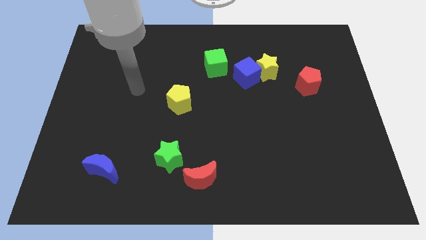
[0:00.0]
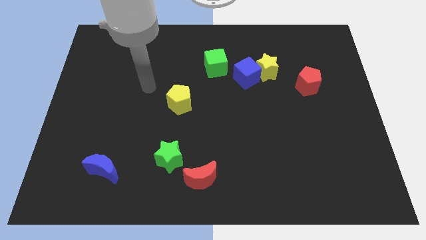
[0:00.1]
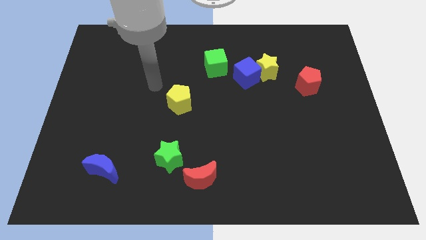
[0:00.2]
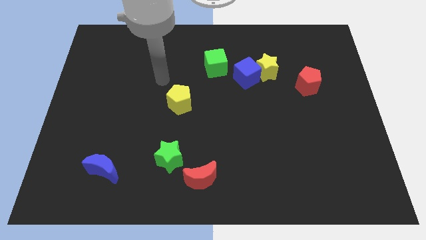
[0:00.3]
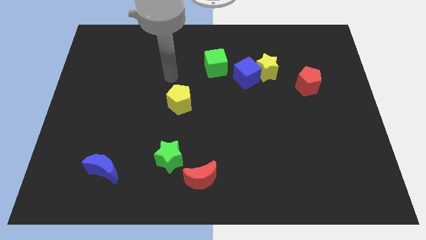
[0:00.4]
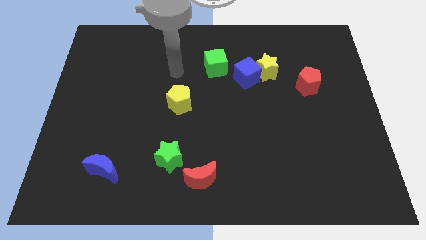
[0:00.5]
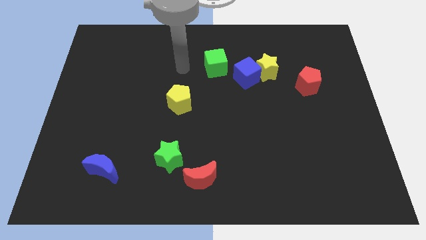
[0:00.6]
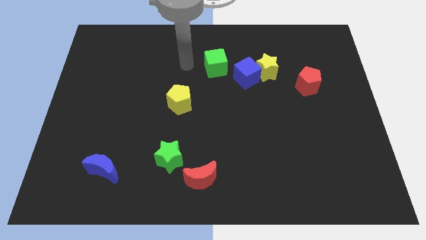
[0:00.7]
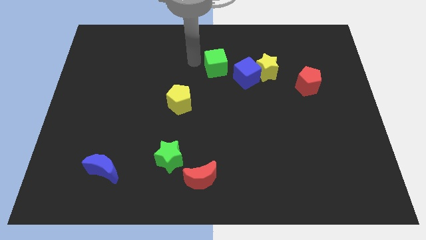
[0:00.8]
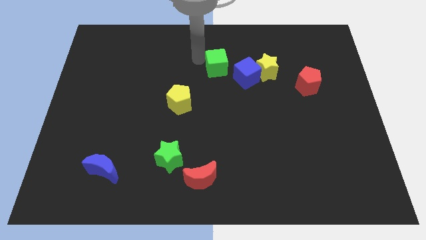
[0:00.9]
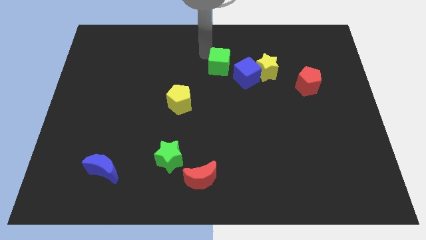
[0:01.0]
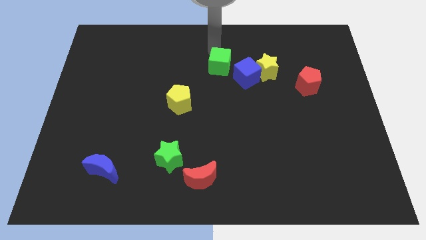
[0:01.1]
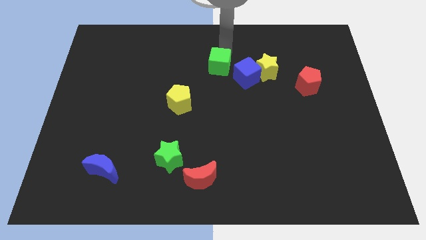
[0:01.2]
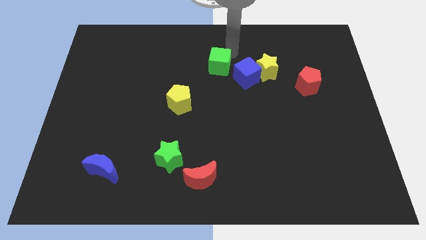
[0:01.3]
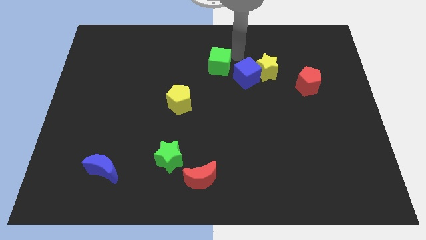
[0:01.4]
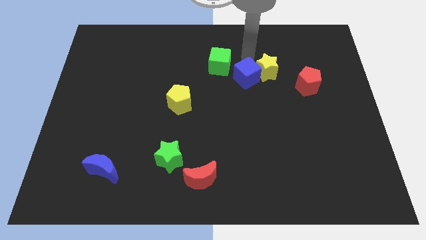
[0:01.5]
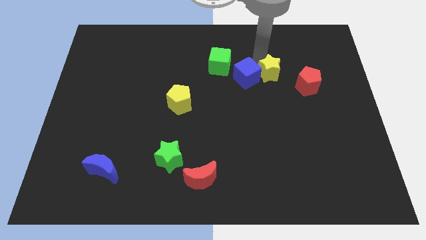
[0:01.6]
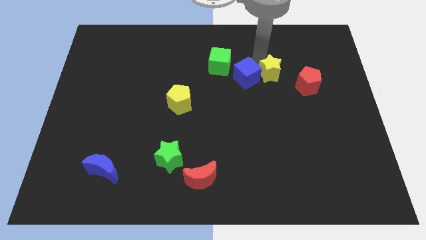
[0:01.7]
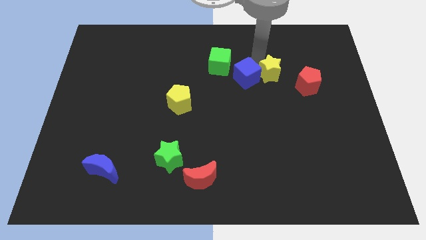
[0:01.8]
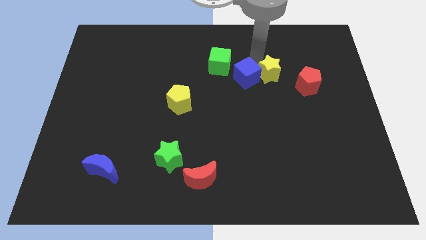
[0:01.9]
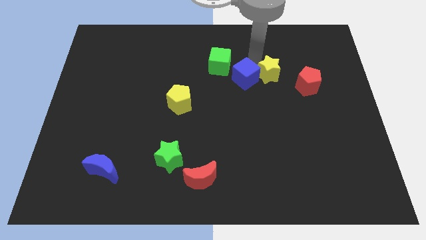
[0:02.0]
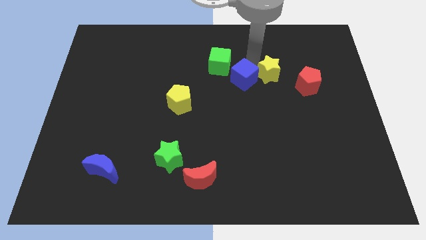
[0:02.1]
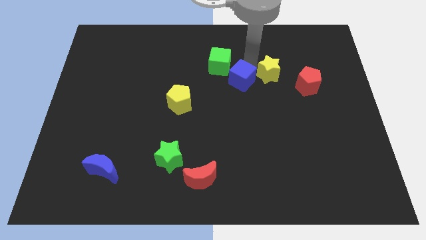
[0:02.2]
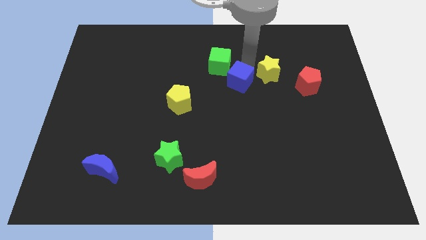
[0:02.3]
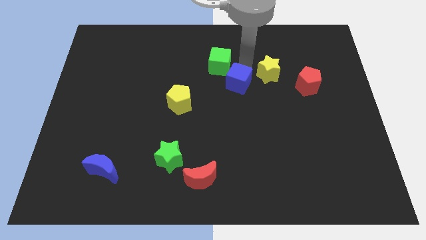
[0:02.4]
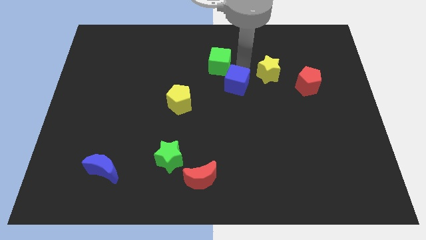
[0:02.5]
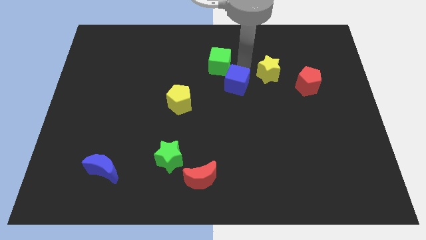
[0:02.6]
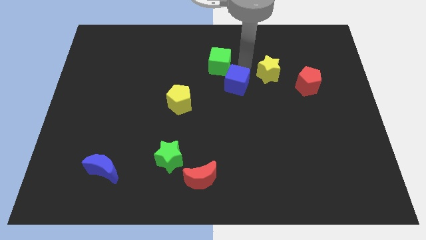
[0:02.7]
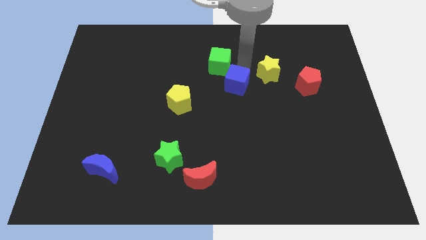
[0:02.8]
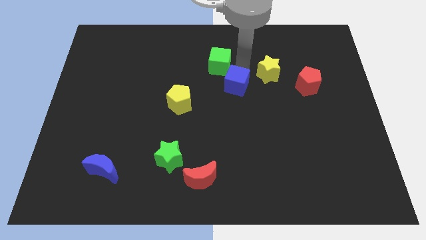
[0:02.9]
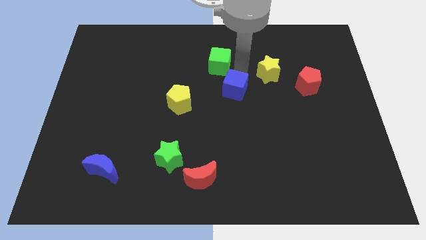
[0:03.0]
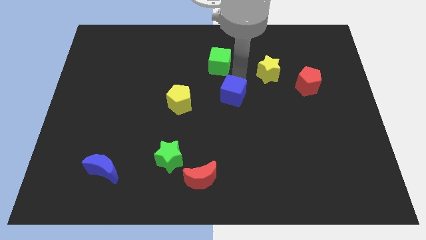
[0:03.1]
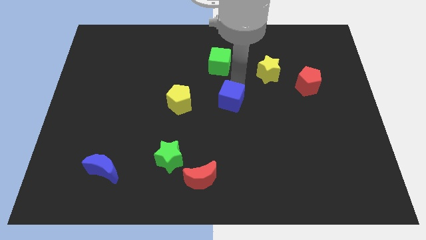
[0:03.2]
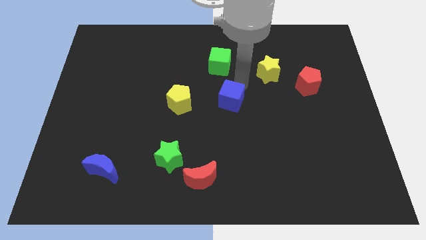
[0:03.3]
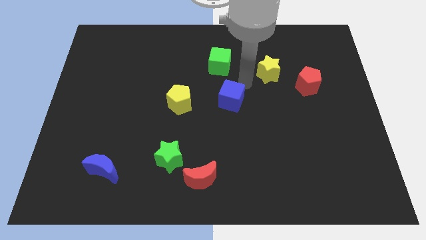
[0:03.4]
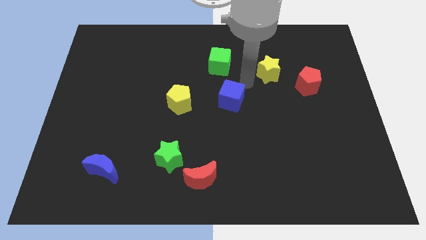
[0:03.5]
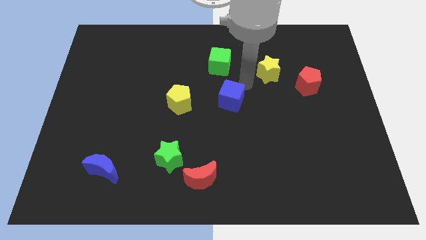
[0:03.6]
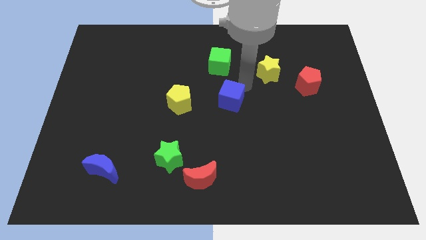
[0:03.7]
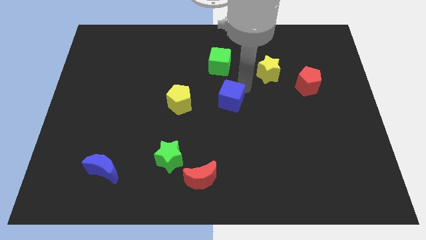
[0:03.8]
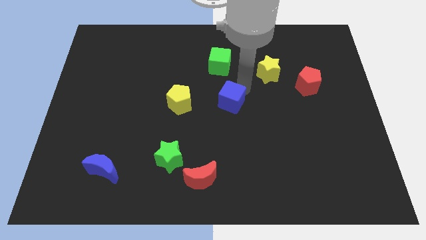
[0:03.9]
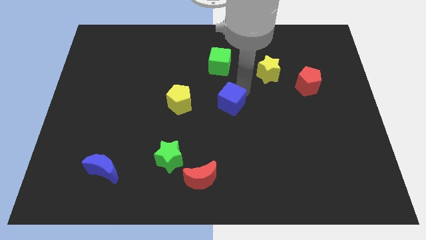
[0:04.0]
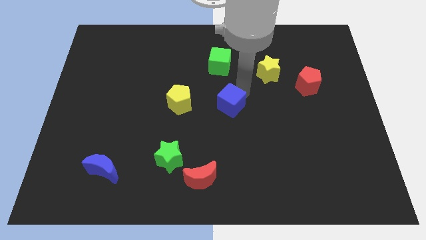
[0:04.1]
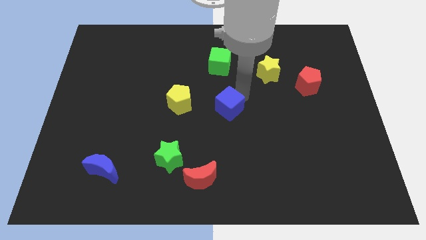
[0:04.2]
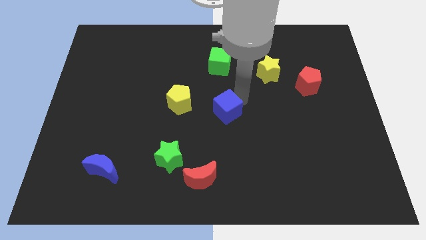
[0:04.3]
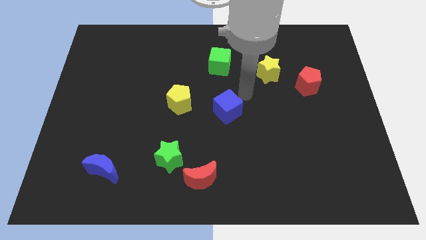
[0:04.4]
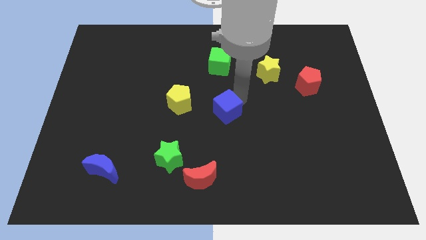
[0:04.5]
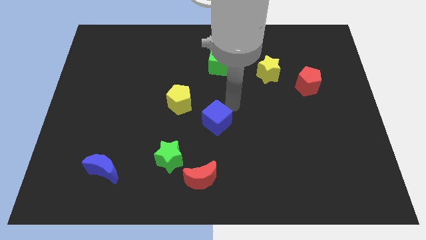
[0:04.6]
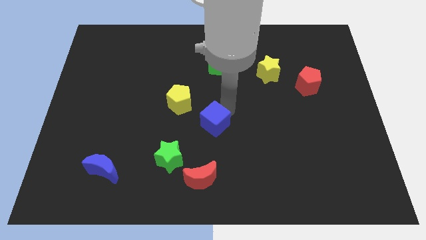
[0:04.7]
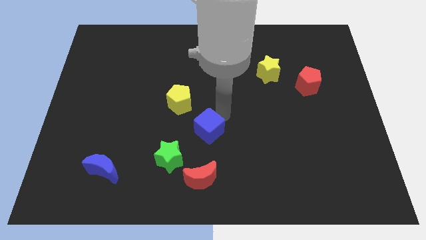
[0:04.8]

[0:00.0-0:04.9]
move the blue cube to the top right side of the green star

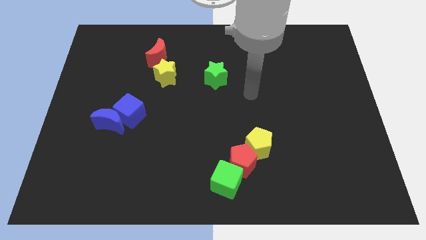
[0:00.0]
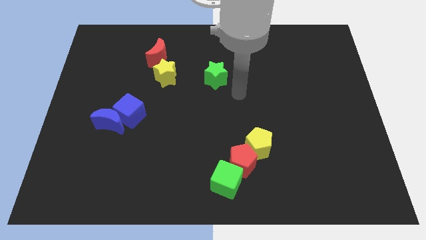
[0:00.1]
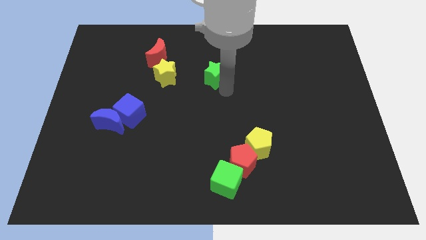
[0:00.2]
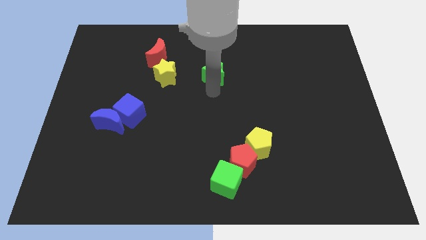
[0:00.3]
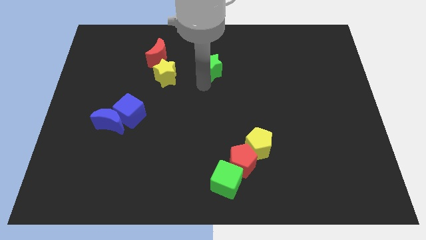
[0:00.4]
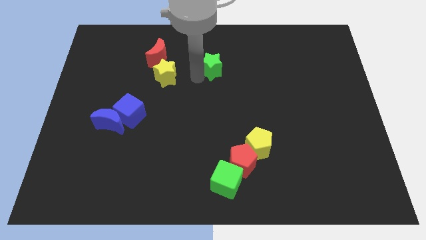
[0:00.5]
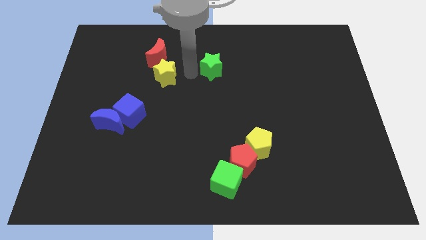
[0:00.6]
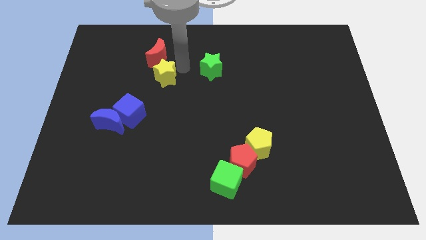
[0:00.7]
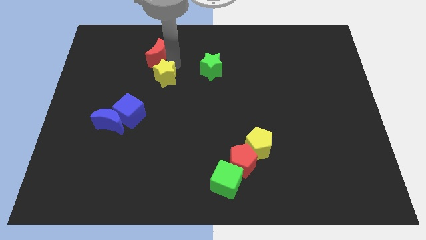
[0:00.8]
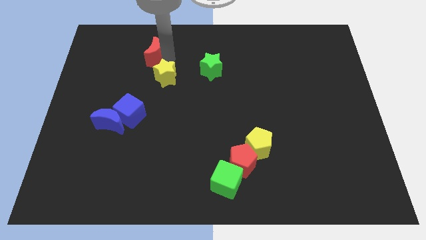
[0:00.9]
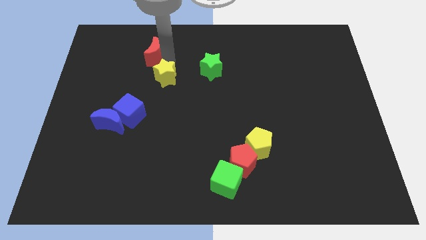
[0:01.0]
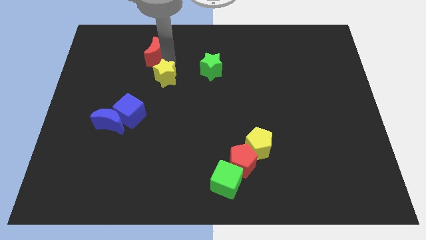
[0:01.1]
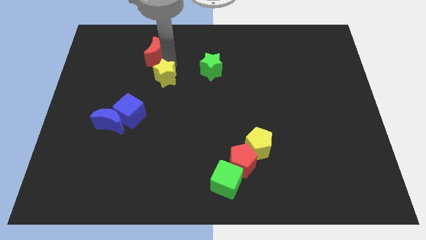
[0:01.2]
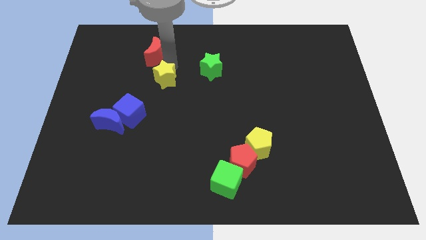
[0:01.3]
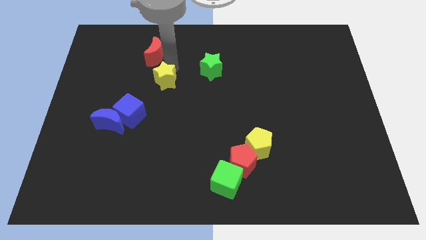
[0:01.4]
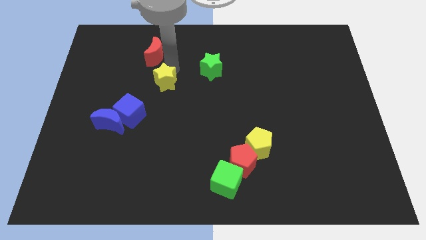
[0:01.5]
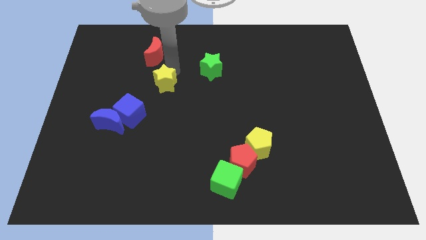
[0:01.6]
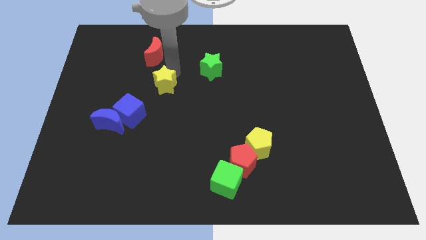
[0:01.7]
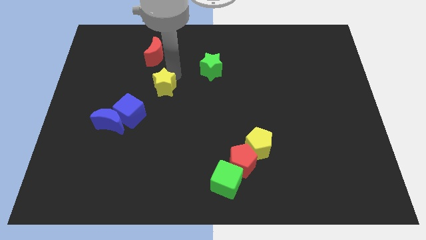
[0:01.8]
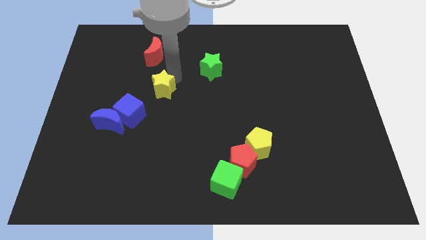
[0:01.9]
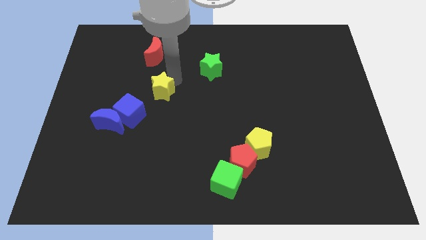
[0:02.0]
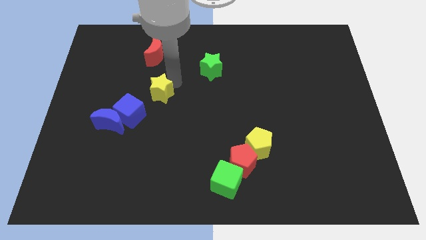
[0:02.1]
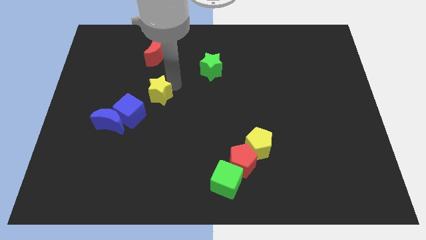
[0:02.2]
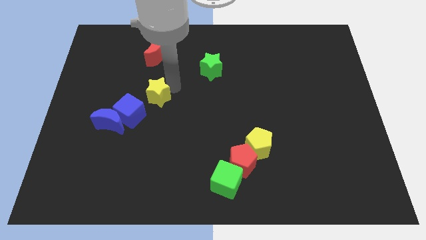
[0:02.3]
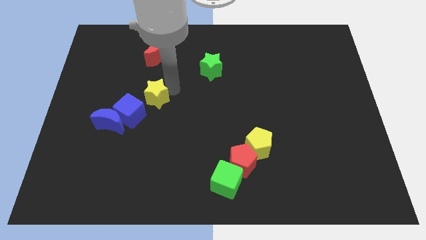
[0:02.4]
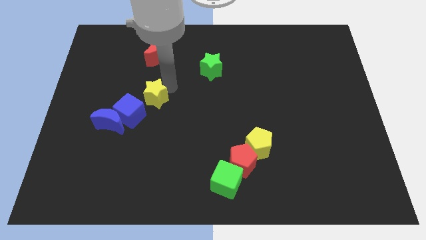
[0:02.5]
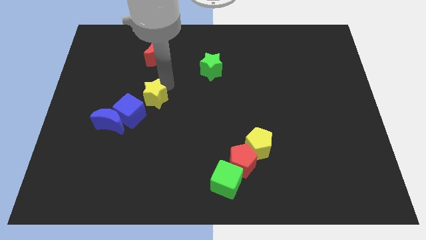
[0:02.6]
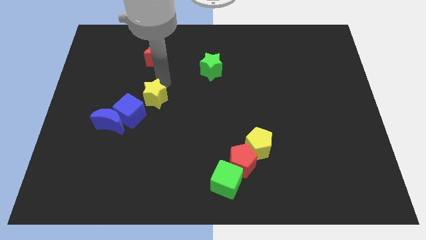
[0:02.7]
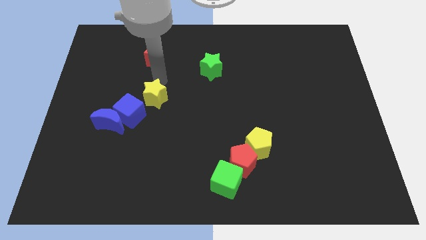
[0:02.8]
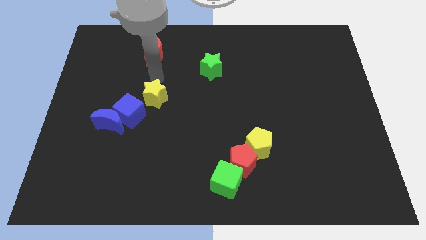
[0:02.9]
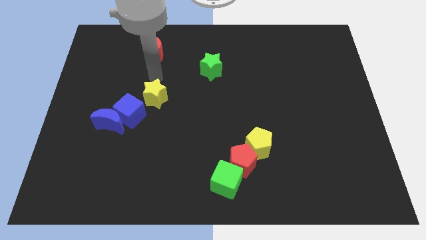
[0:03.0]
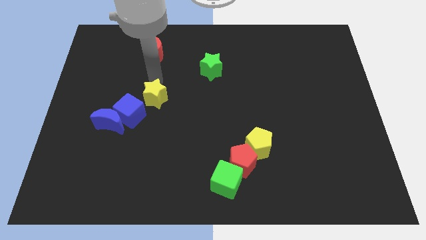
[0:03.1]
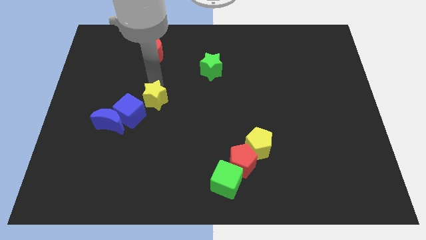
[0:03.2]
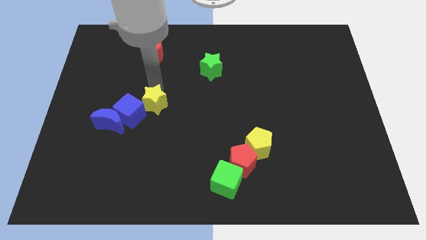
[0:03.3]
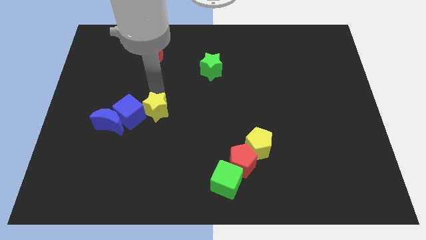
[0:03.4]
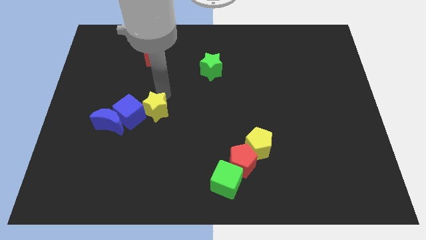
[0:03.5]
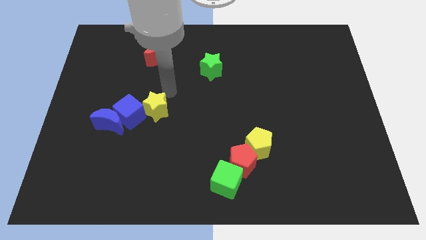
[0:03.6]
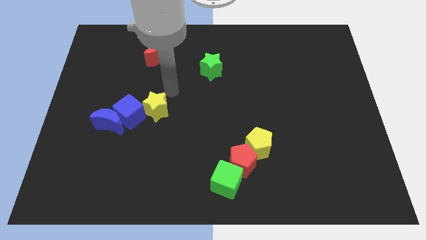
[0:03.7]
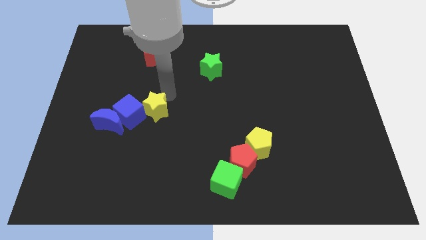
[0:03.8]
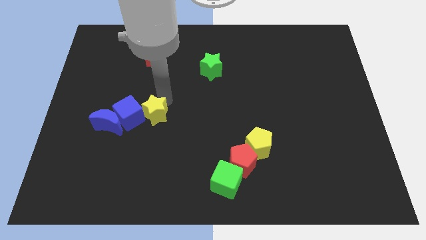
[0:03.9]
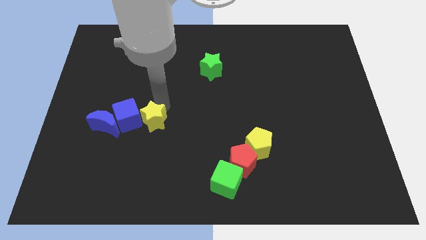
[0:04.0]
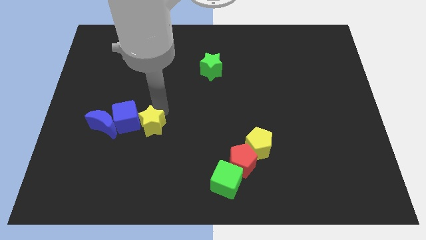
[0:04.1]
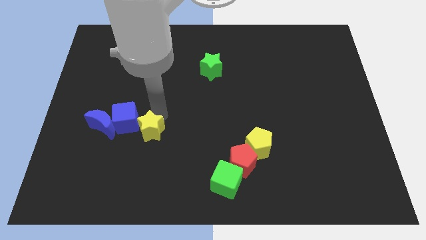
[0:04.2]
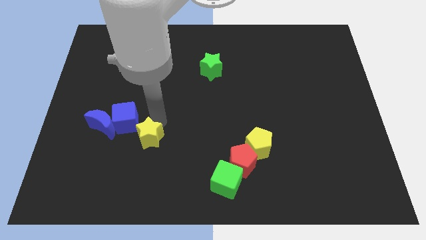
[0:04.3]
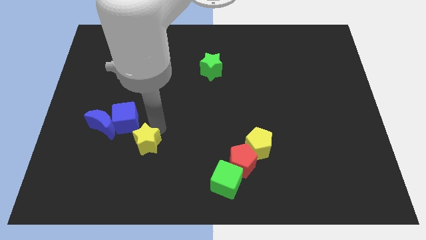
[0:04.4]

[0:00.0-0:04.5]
slide the yellow star to the bottom right of the blue moon
